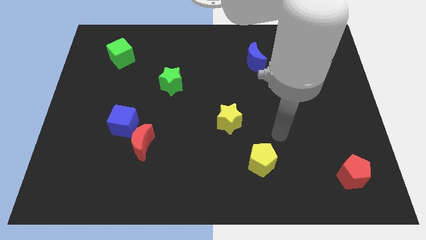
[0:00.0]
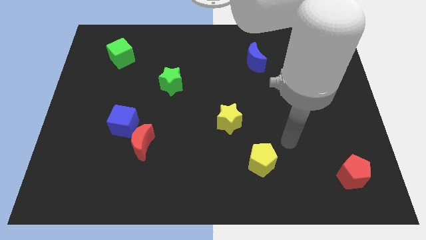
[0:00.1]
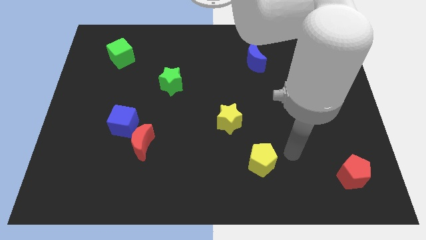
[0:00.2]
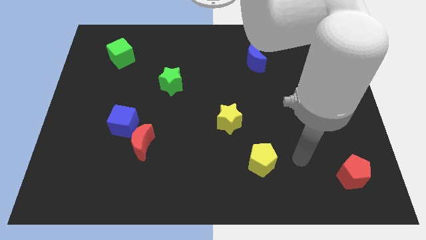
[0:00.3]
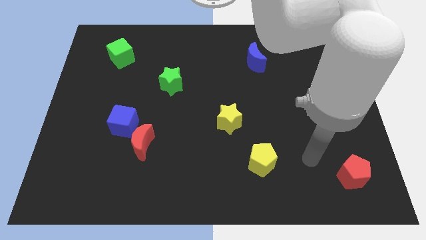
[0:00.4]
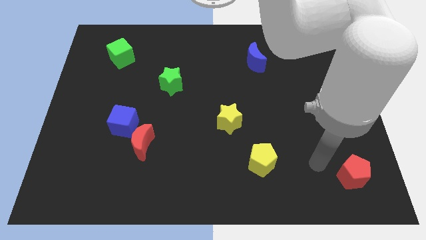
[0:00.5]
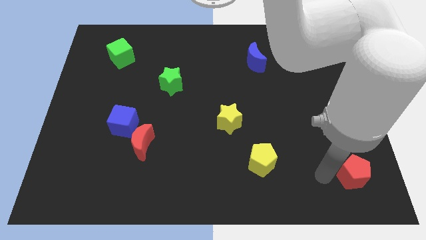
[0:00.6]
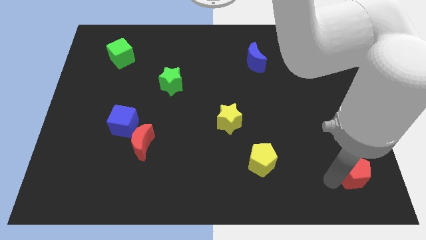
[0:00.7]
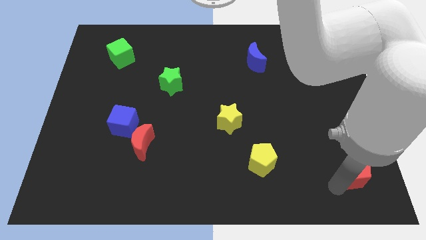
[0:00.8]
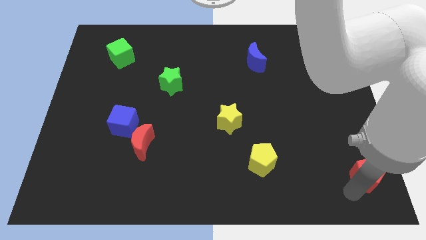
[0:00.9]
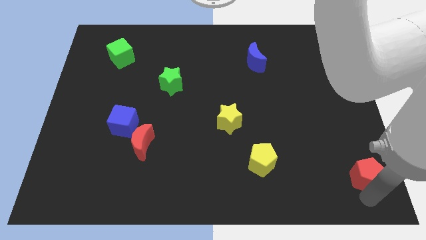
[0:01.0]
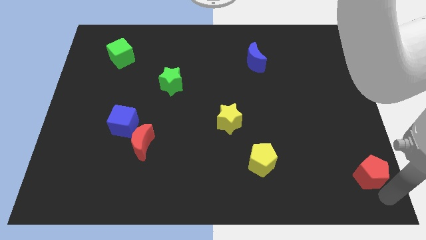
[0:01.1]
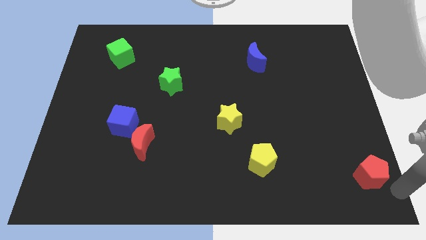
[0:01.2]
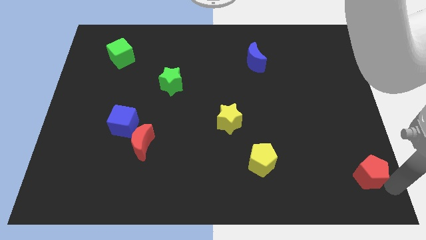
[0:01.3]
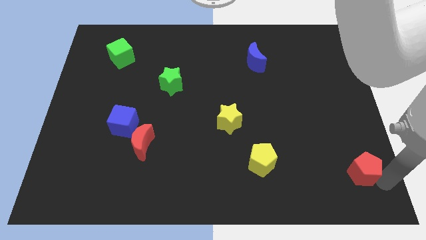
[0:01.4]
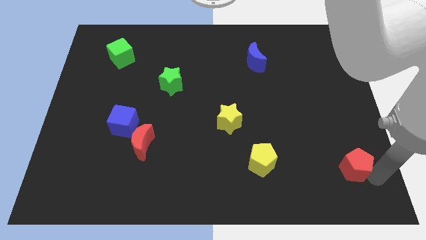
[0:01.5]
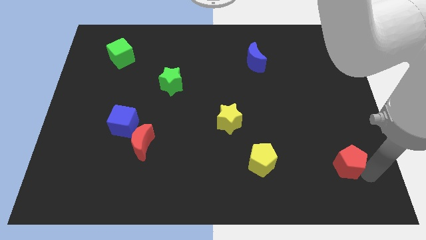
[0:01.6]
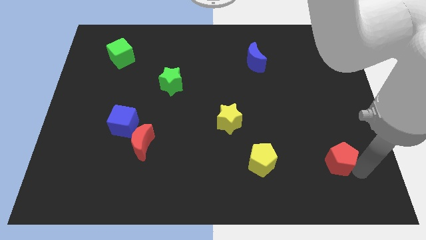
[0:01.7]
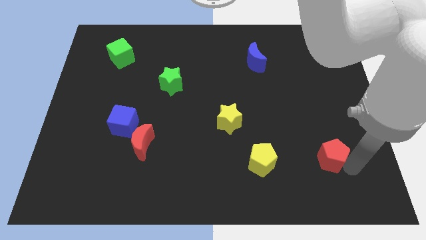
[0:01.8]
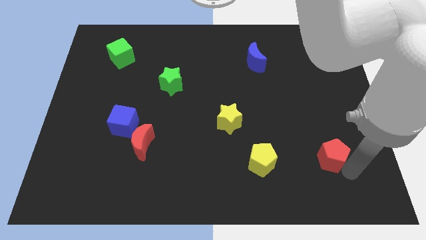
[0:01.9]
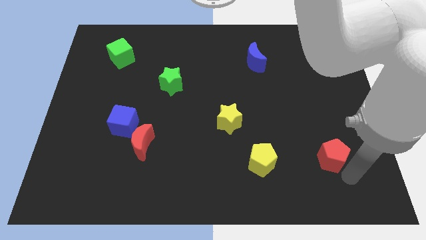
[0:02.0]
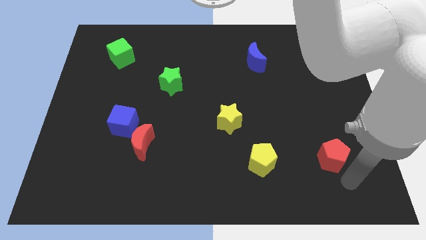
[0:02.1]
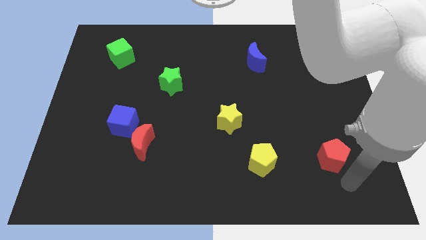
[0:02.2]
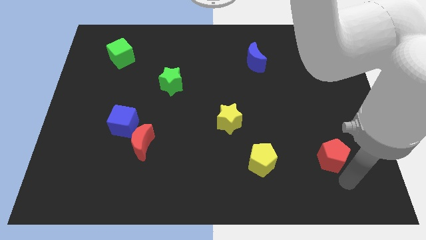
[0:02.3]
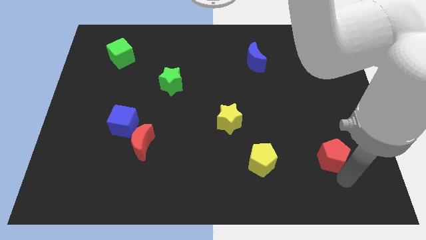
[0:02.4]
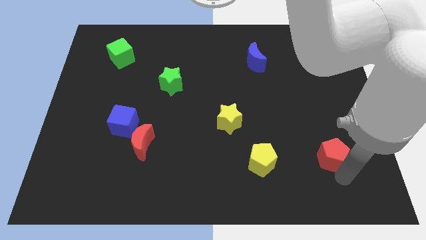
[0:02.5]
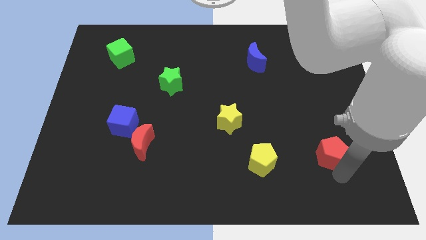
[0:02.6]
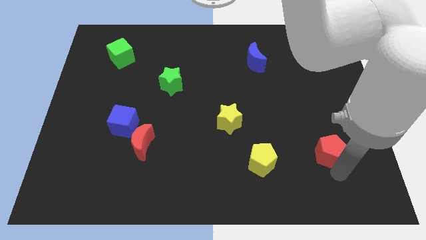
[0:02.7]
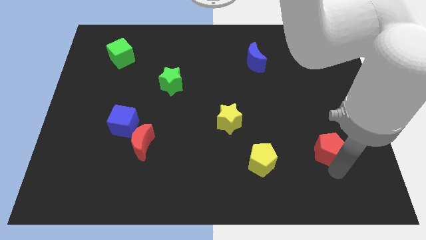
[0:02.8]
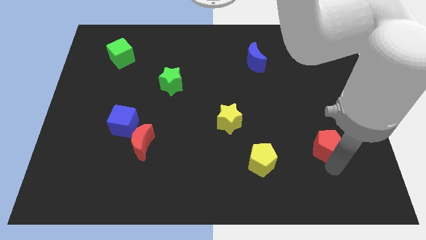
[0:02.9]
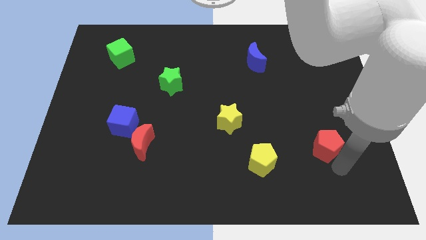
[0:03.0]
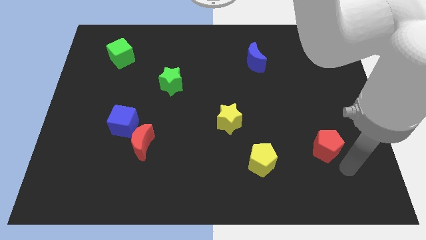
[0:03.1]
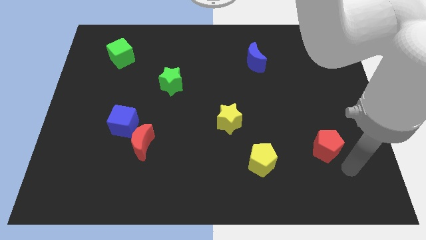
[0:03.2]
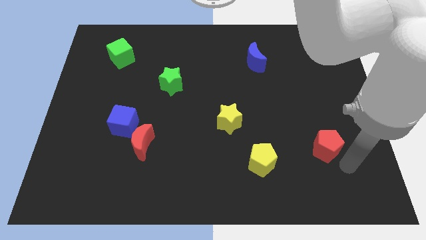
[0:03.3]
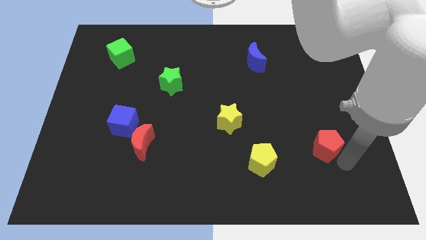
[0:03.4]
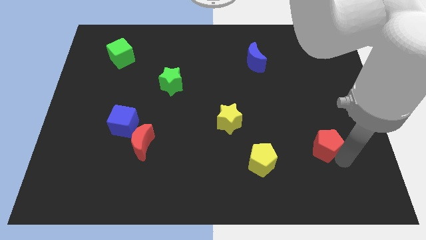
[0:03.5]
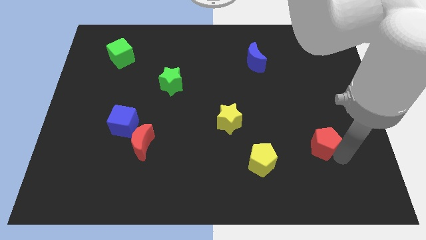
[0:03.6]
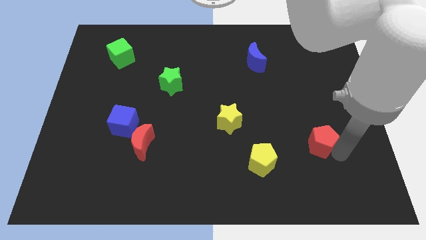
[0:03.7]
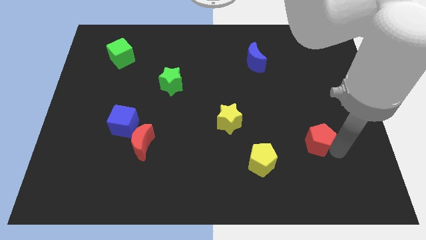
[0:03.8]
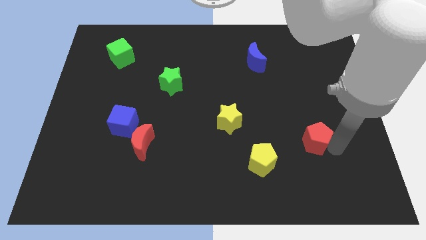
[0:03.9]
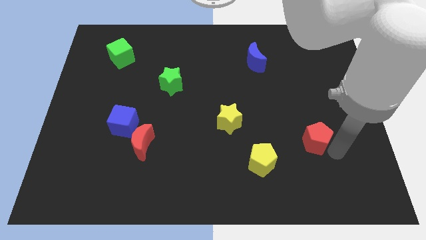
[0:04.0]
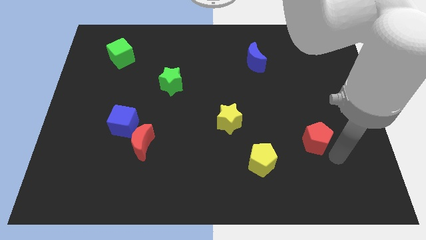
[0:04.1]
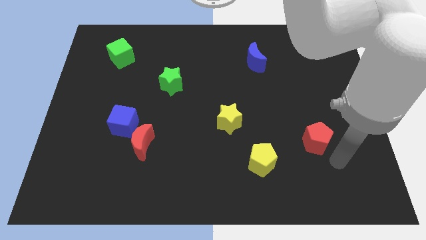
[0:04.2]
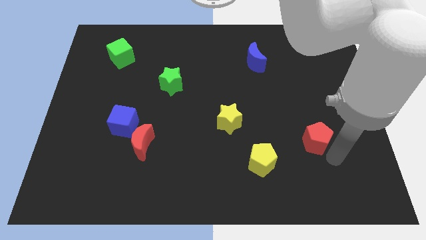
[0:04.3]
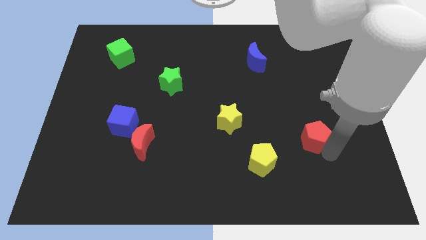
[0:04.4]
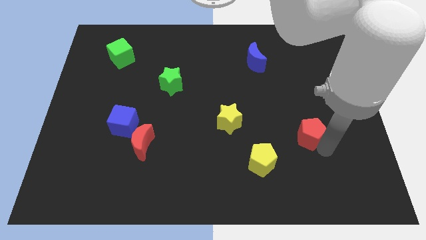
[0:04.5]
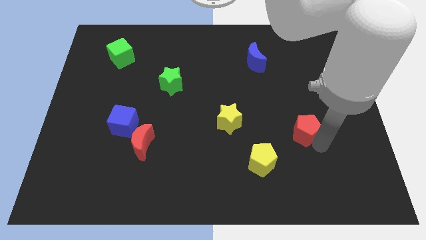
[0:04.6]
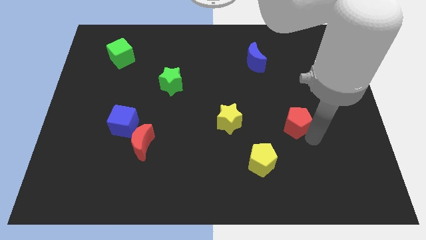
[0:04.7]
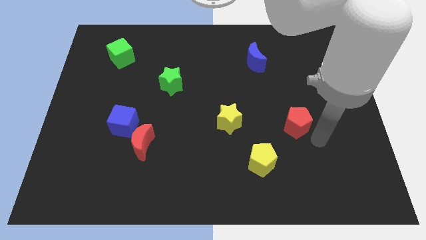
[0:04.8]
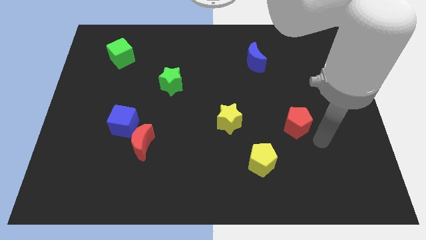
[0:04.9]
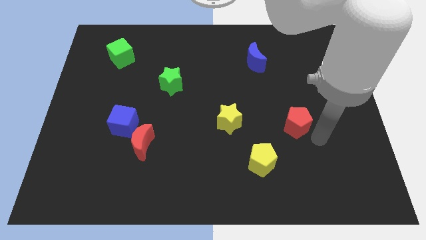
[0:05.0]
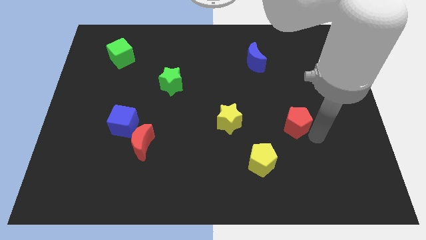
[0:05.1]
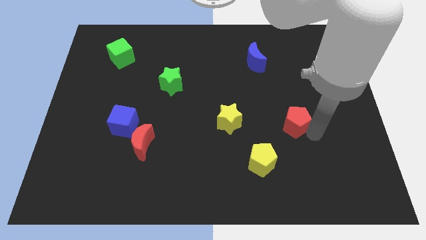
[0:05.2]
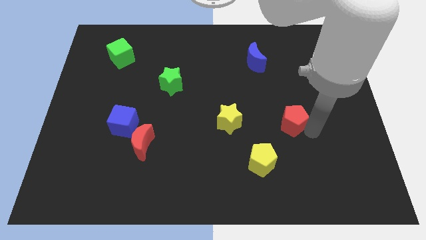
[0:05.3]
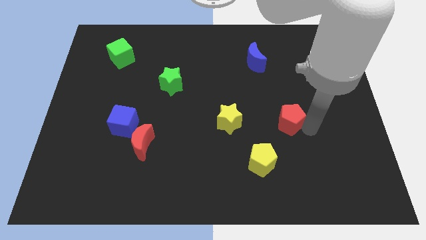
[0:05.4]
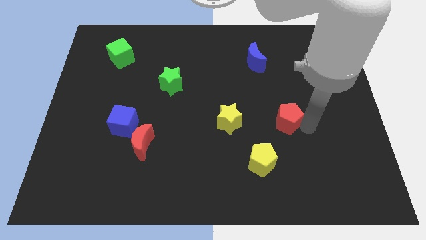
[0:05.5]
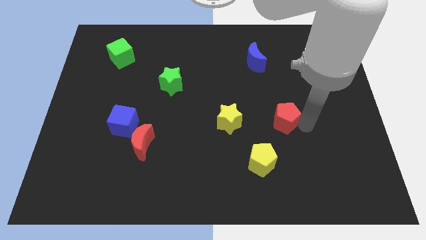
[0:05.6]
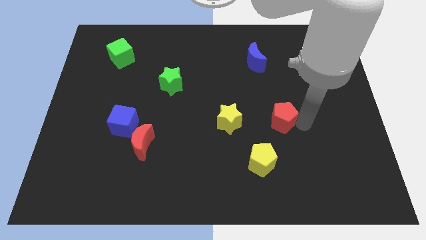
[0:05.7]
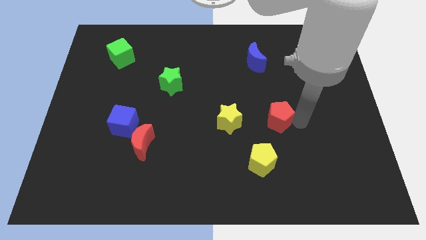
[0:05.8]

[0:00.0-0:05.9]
slide the red pentagon upwards and left diagonally

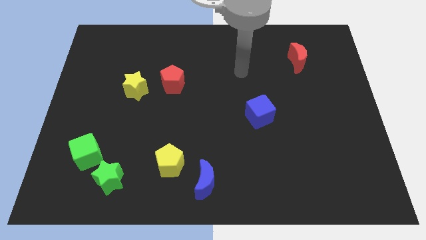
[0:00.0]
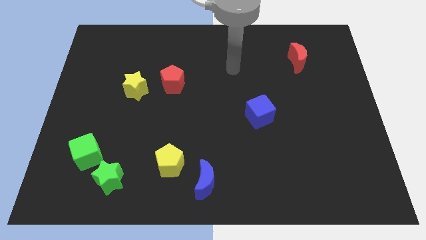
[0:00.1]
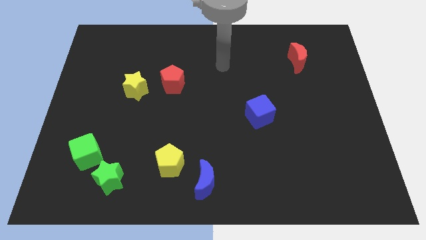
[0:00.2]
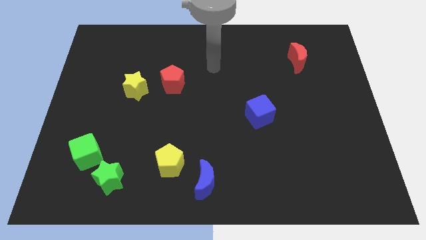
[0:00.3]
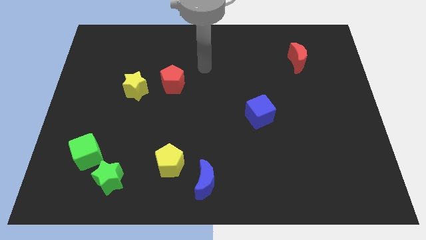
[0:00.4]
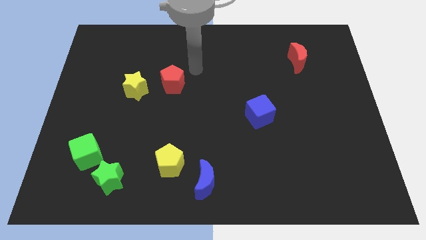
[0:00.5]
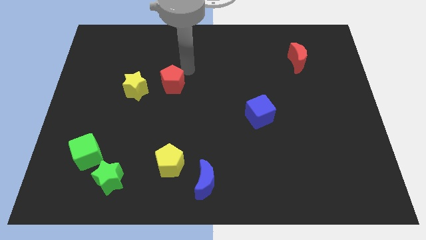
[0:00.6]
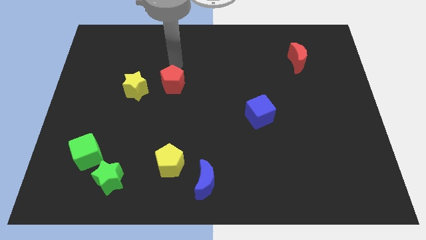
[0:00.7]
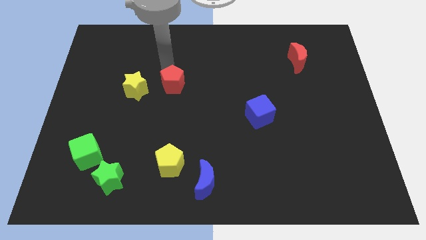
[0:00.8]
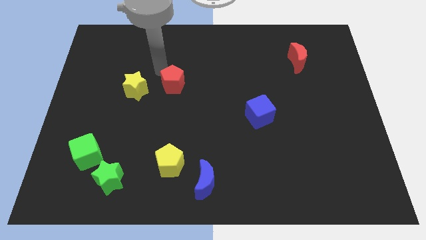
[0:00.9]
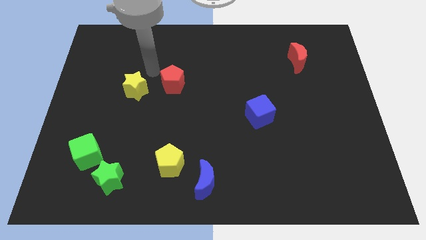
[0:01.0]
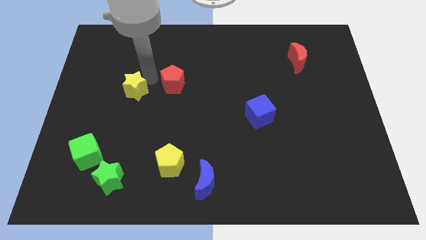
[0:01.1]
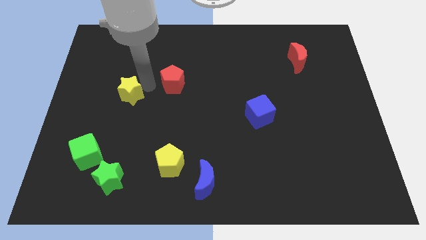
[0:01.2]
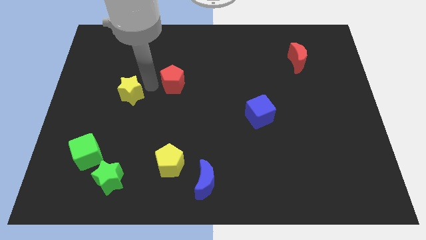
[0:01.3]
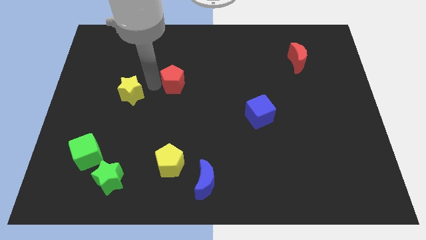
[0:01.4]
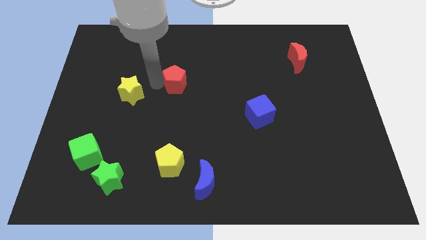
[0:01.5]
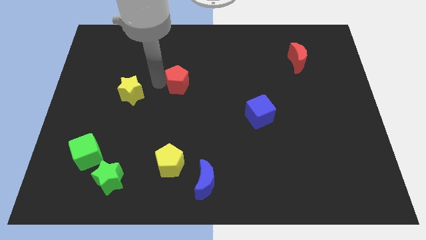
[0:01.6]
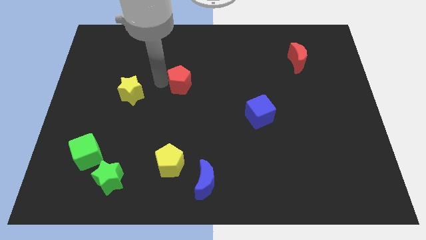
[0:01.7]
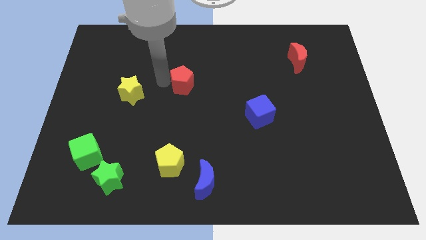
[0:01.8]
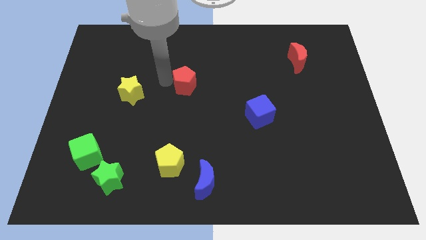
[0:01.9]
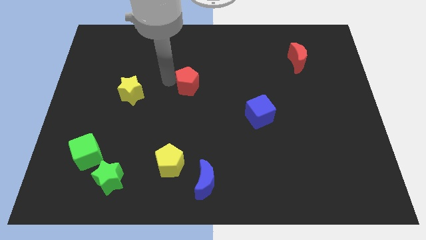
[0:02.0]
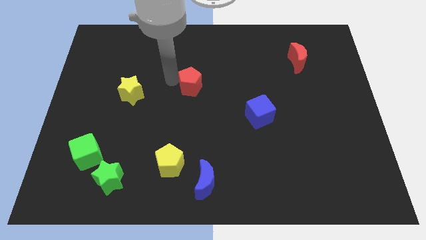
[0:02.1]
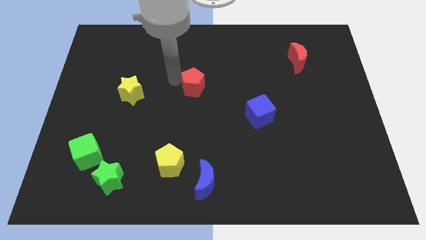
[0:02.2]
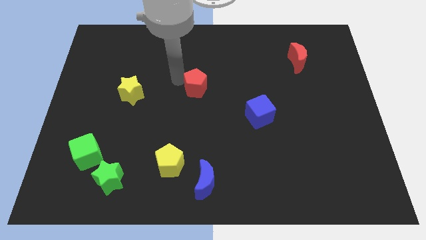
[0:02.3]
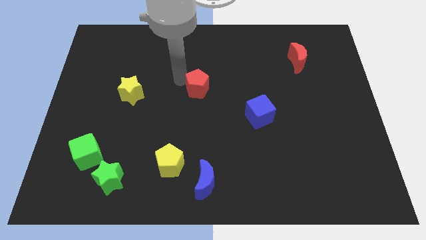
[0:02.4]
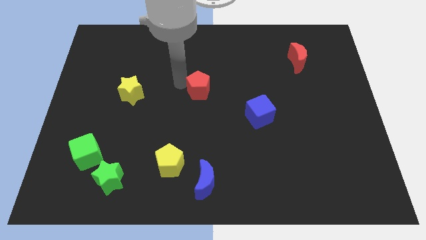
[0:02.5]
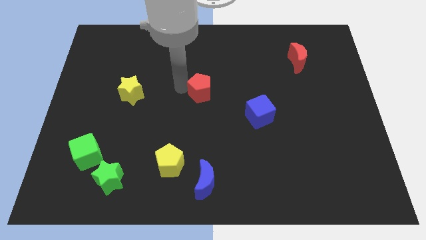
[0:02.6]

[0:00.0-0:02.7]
slightly push the red pentagon to the right
